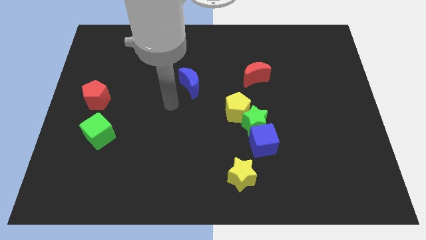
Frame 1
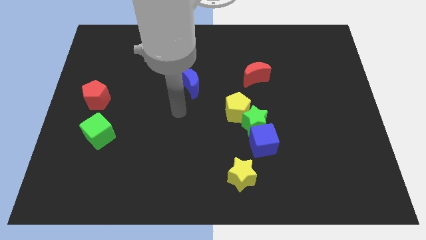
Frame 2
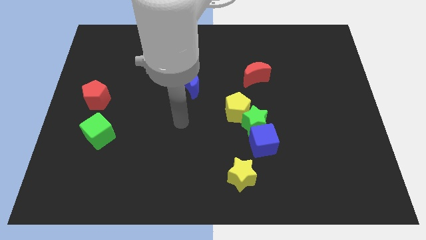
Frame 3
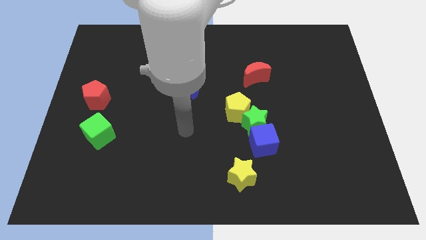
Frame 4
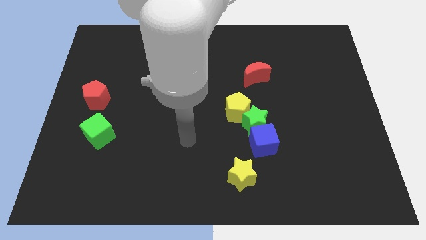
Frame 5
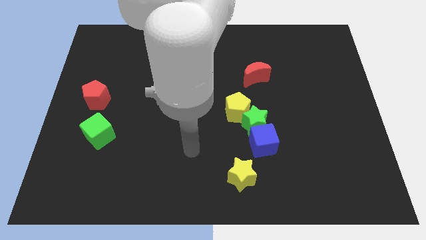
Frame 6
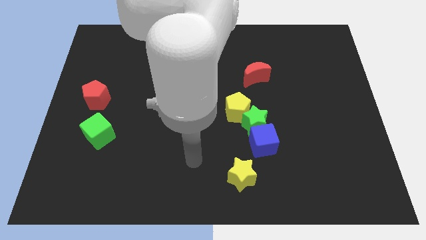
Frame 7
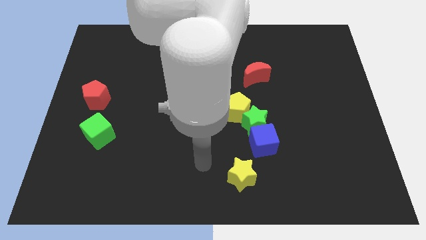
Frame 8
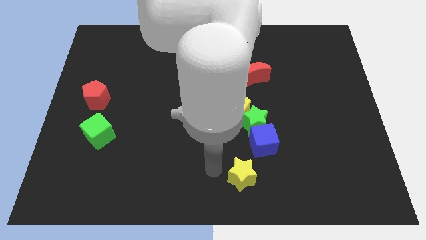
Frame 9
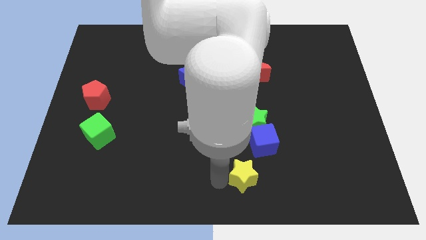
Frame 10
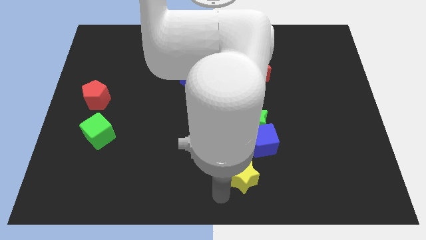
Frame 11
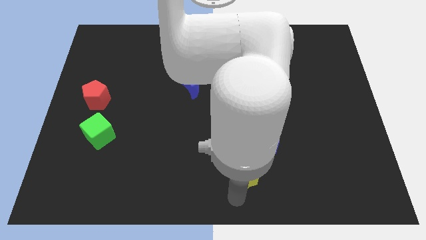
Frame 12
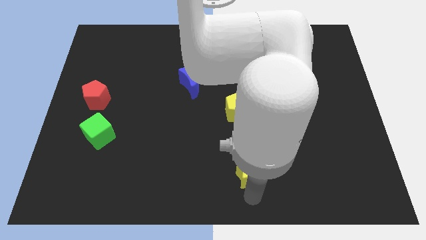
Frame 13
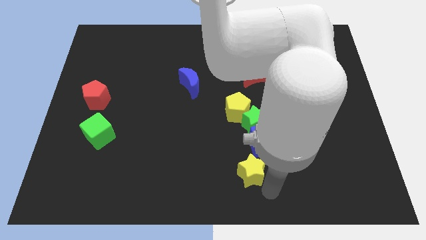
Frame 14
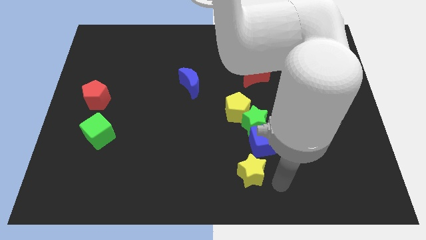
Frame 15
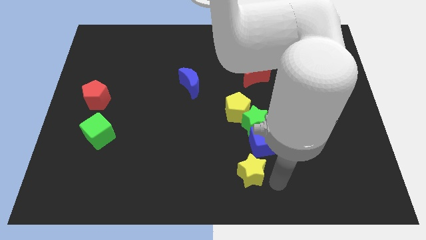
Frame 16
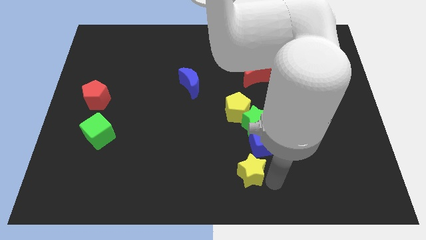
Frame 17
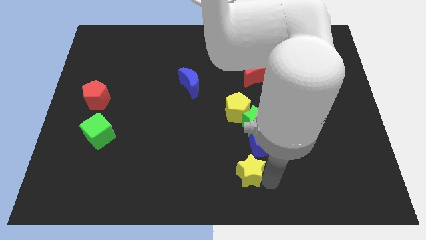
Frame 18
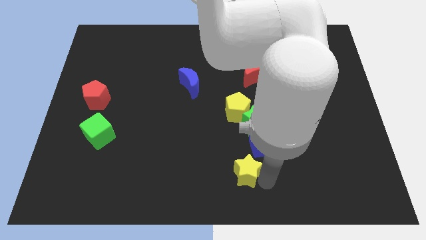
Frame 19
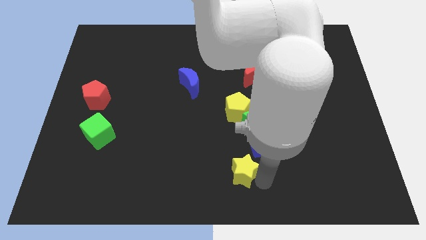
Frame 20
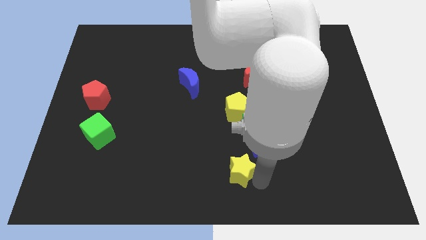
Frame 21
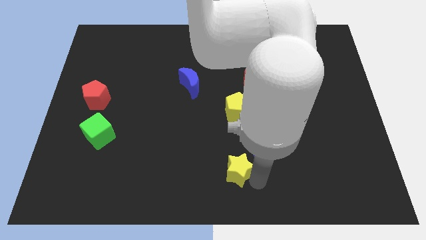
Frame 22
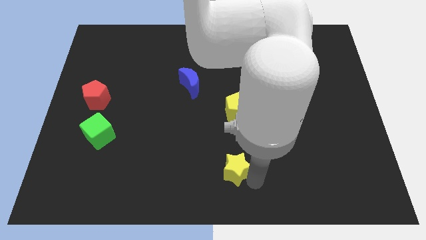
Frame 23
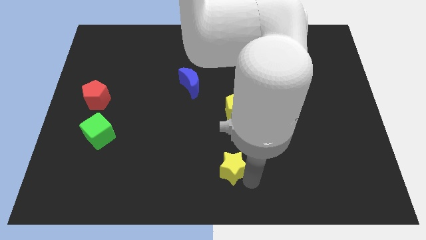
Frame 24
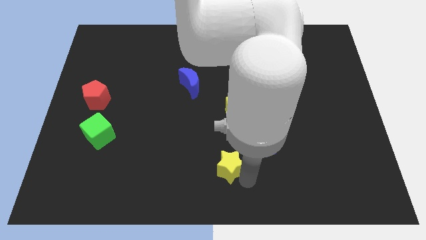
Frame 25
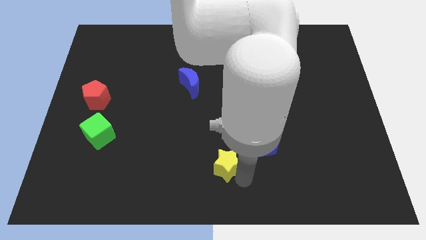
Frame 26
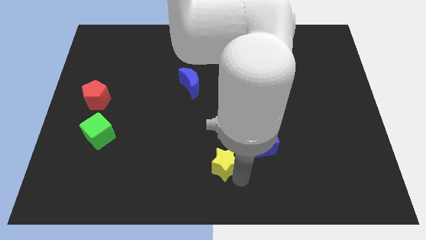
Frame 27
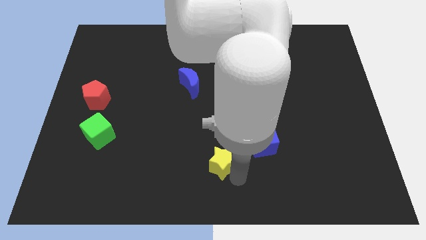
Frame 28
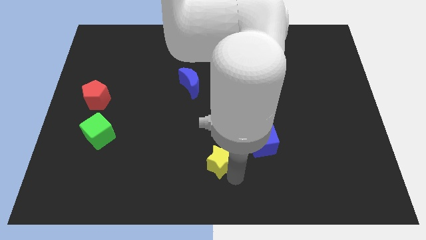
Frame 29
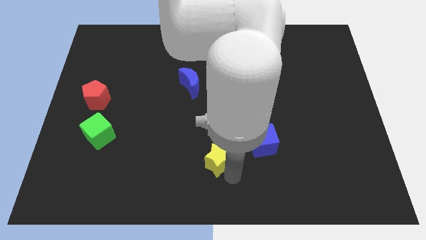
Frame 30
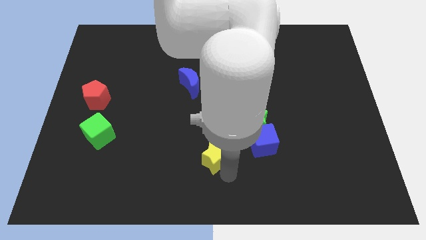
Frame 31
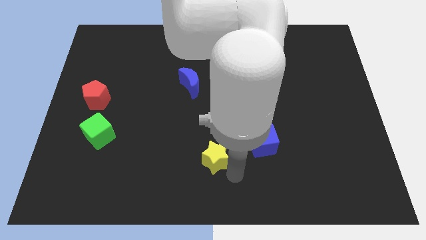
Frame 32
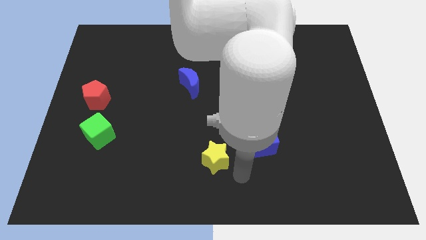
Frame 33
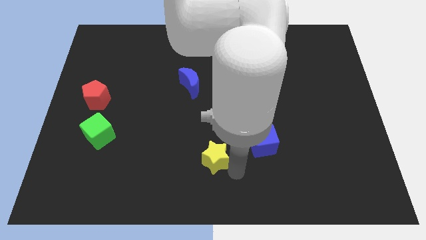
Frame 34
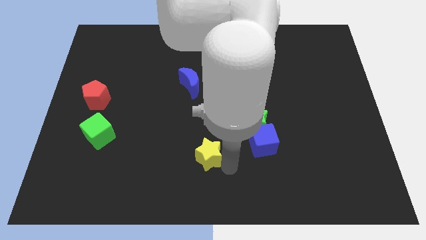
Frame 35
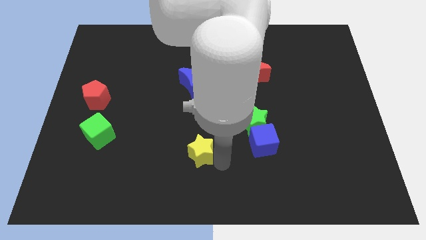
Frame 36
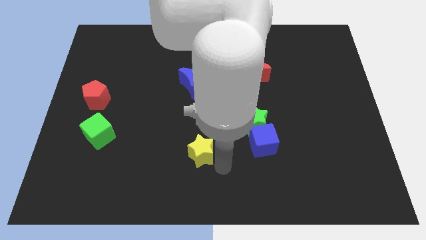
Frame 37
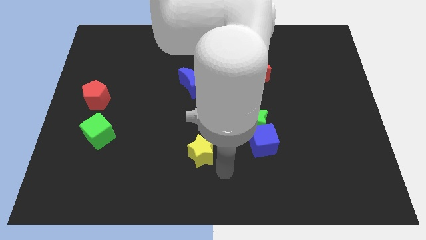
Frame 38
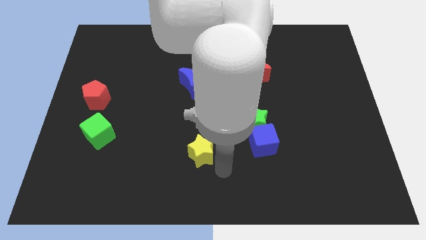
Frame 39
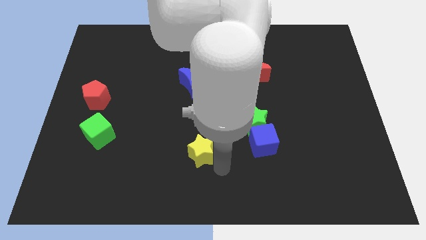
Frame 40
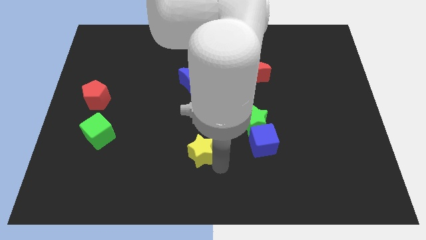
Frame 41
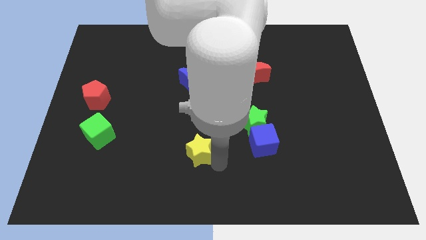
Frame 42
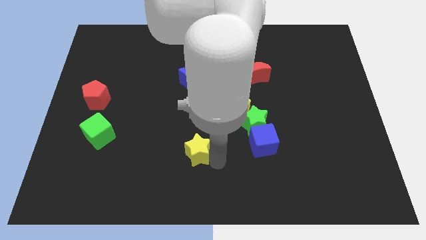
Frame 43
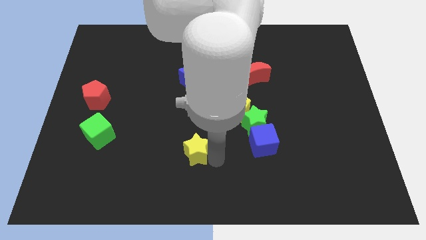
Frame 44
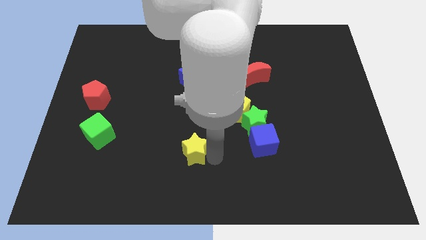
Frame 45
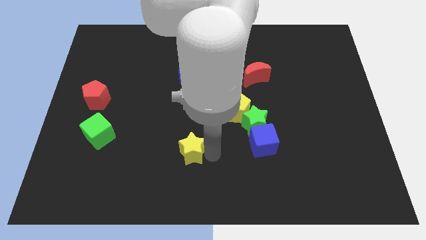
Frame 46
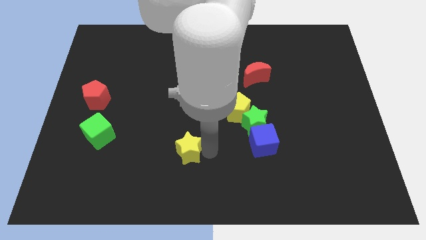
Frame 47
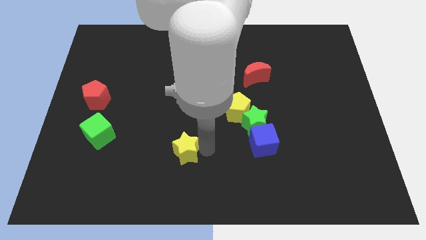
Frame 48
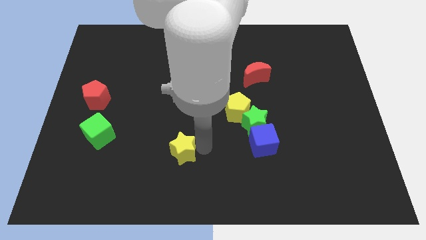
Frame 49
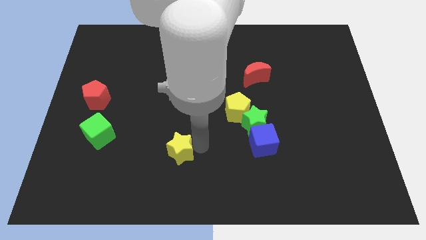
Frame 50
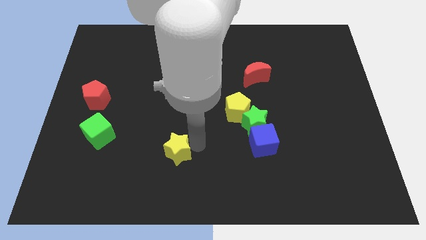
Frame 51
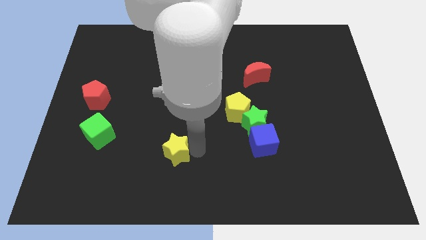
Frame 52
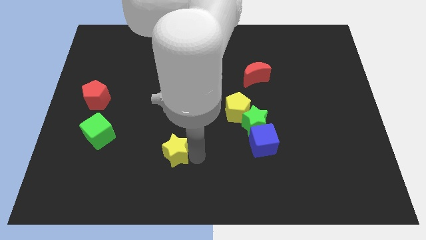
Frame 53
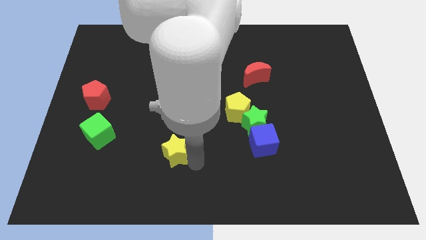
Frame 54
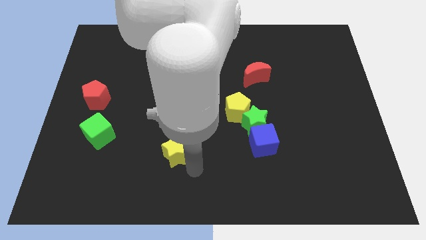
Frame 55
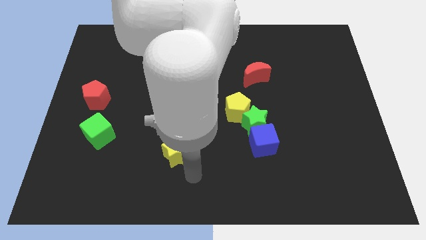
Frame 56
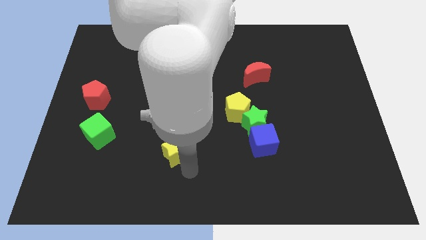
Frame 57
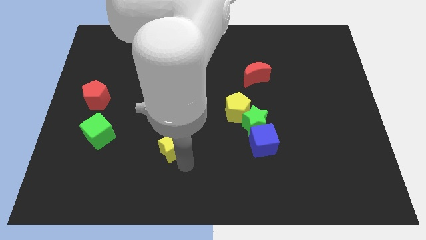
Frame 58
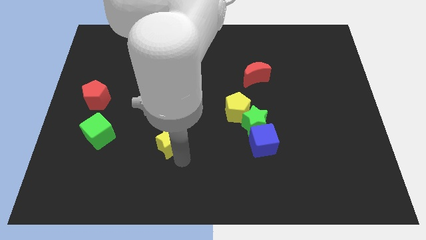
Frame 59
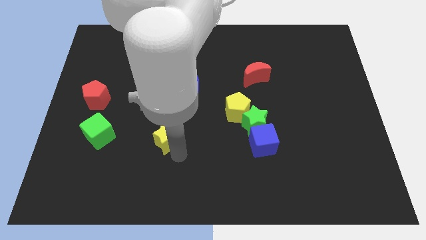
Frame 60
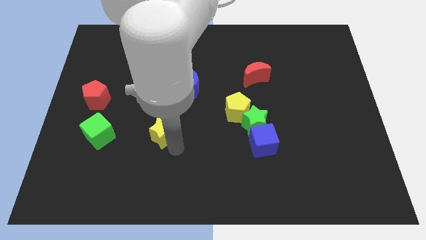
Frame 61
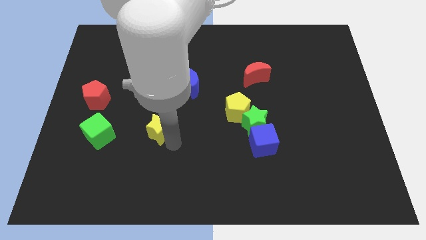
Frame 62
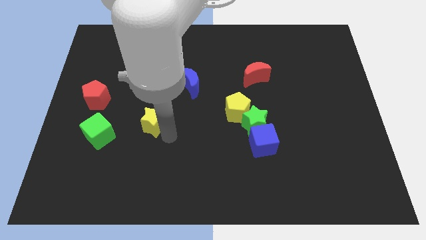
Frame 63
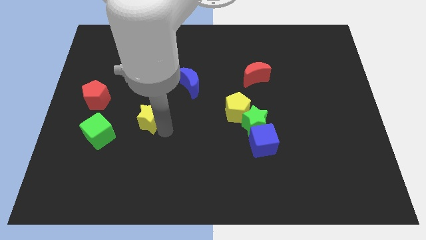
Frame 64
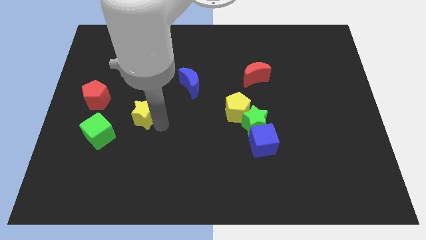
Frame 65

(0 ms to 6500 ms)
push the yellow star diagonally up and to the right of the green cube
